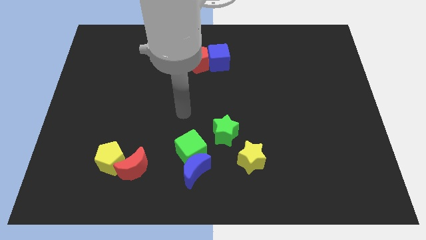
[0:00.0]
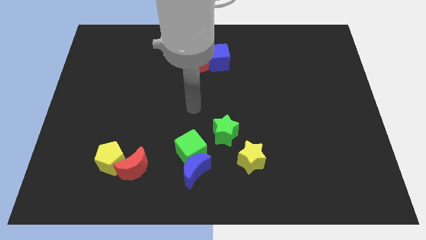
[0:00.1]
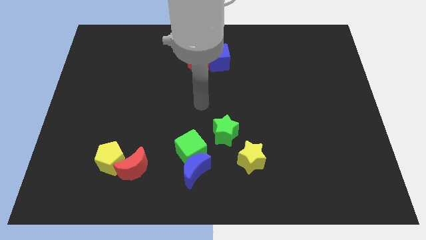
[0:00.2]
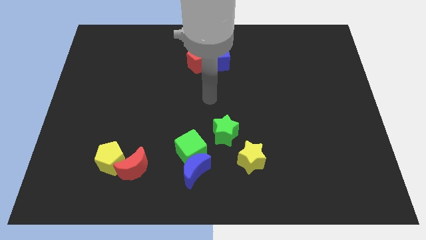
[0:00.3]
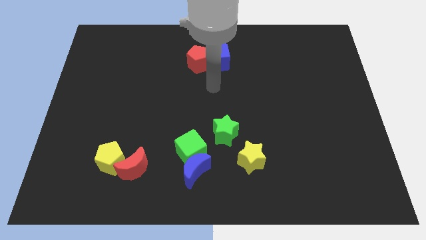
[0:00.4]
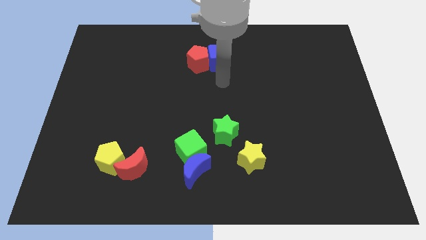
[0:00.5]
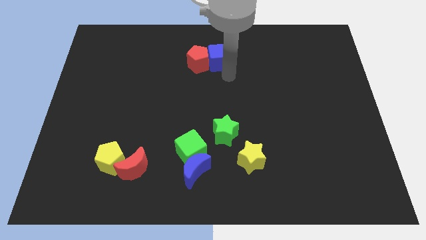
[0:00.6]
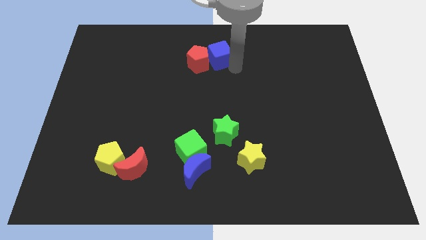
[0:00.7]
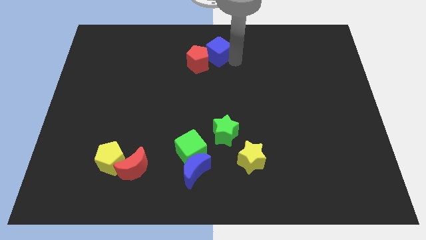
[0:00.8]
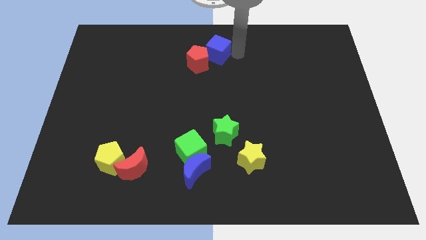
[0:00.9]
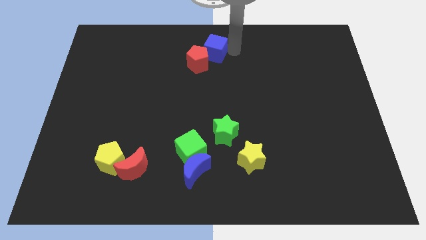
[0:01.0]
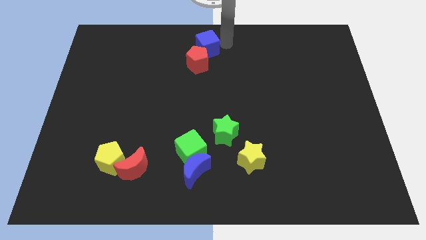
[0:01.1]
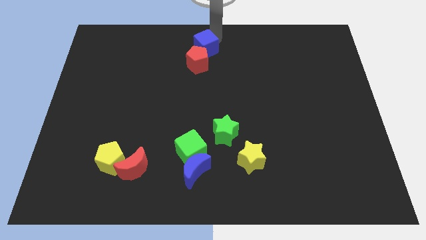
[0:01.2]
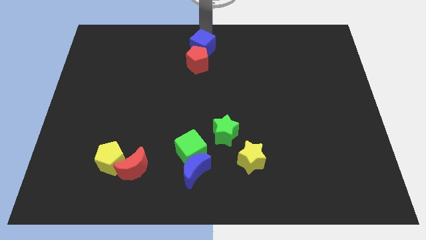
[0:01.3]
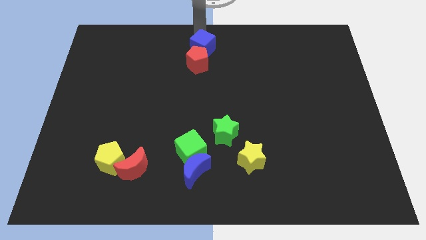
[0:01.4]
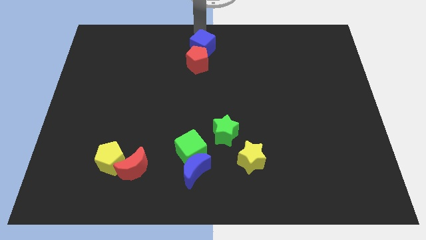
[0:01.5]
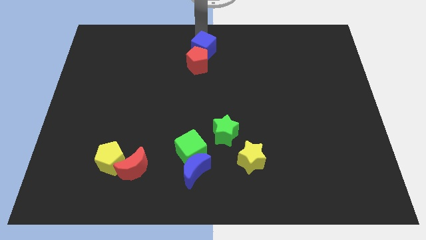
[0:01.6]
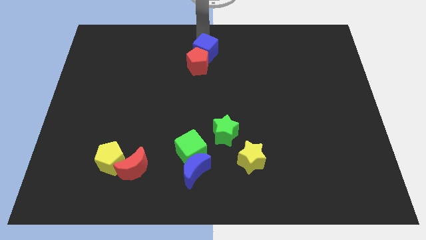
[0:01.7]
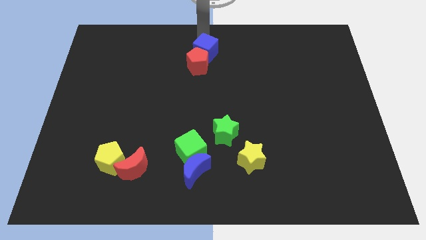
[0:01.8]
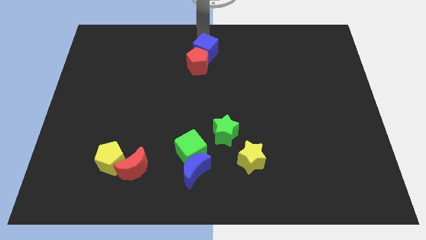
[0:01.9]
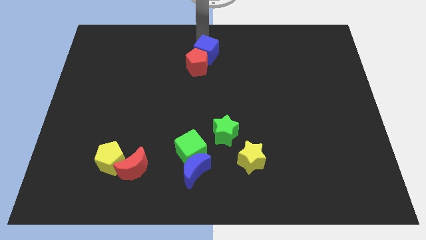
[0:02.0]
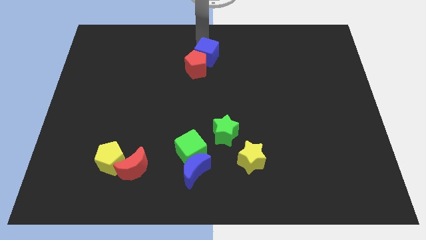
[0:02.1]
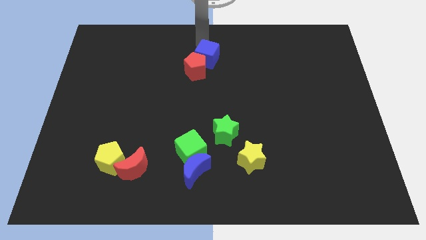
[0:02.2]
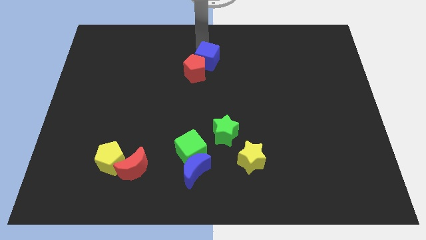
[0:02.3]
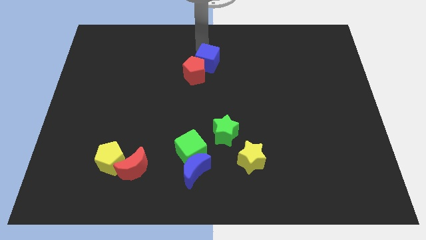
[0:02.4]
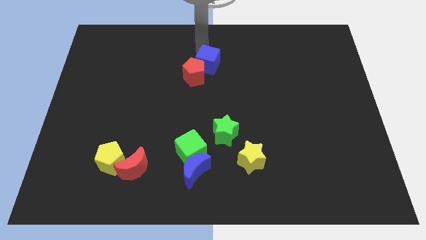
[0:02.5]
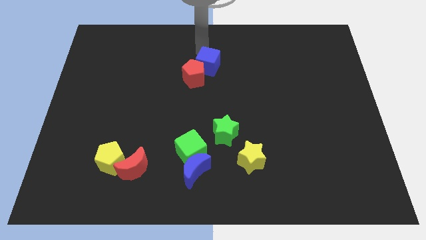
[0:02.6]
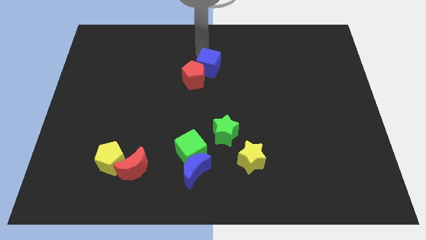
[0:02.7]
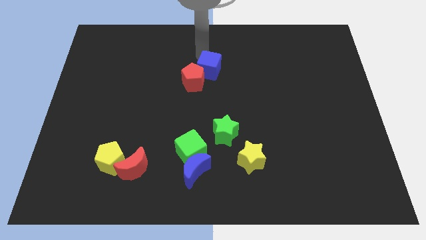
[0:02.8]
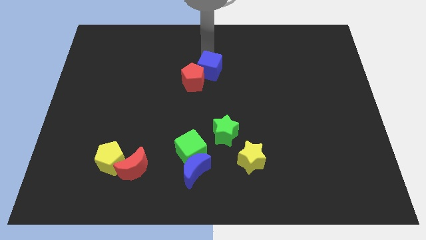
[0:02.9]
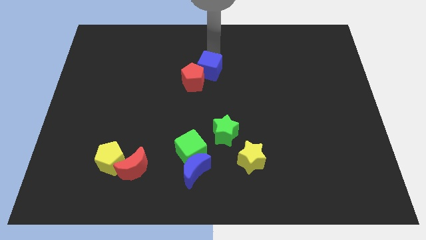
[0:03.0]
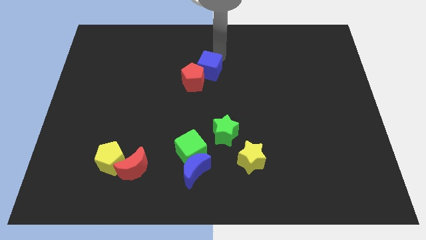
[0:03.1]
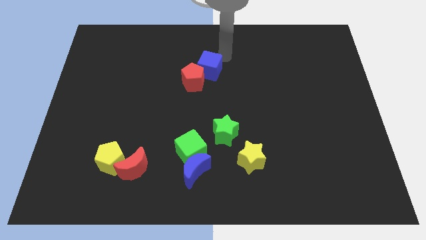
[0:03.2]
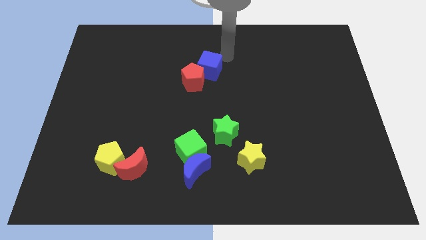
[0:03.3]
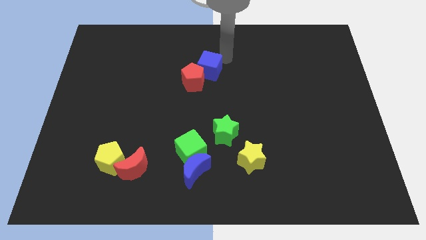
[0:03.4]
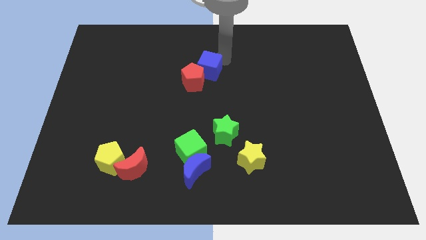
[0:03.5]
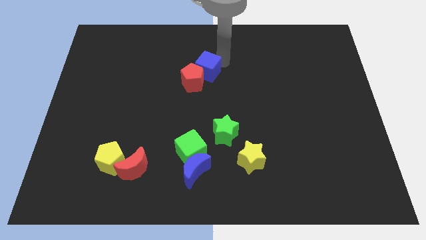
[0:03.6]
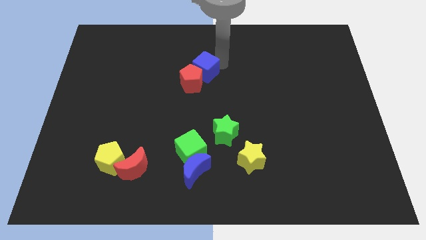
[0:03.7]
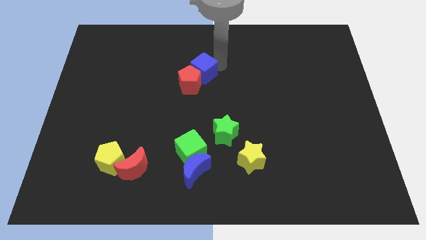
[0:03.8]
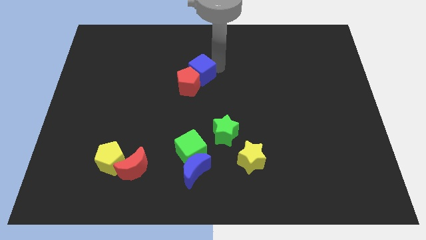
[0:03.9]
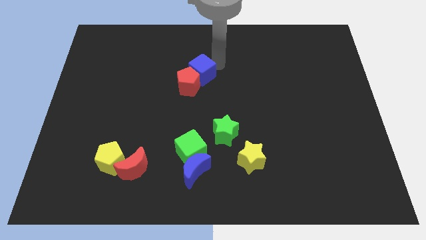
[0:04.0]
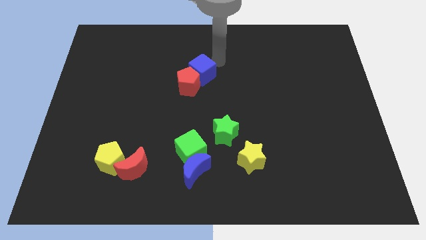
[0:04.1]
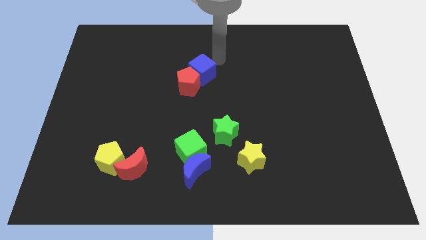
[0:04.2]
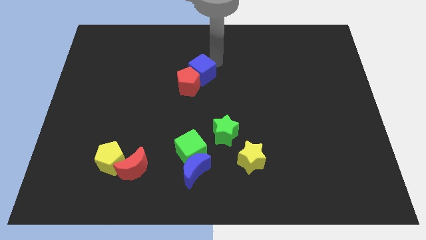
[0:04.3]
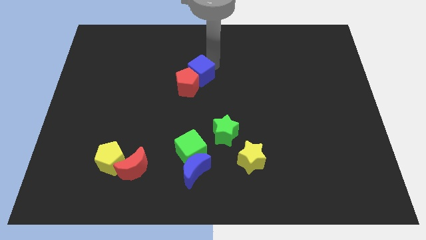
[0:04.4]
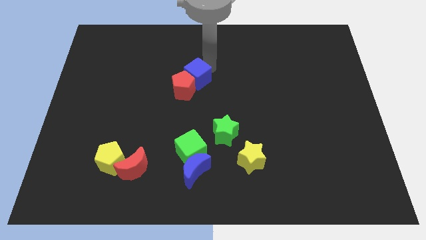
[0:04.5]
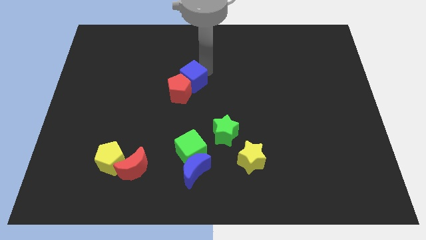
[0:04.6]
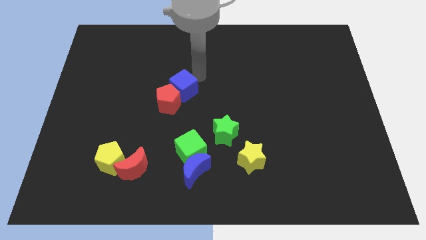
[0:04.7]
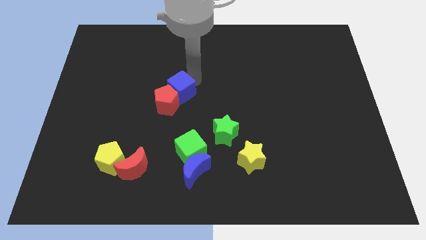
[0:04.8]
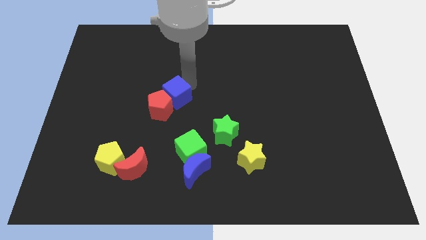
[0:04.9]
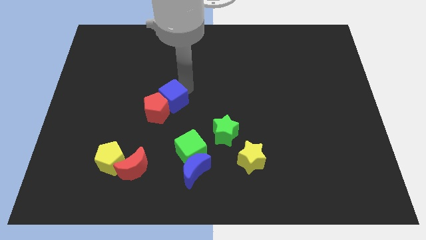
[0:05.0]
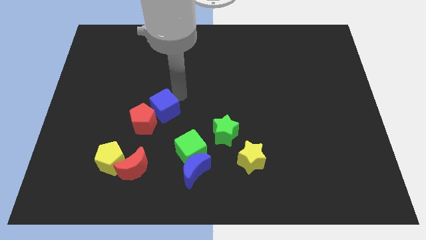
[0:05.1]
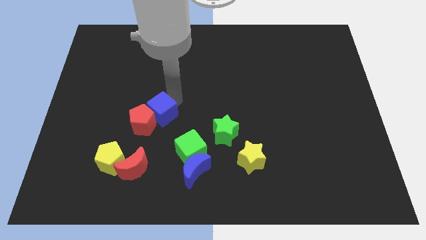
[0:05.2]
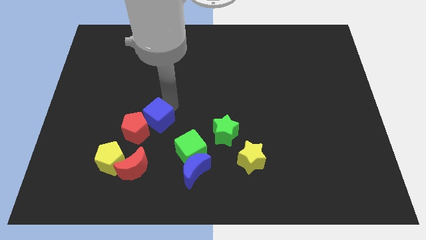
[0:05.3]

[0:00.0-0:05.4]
move the blue cube to the top side of the red moon

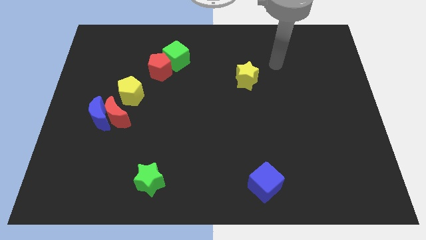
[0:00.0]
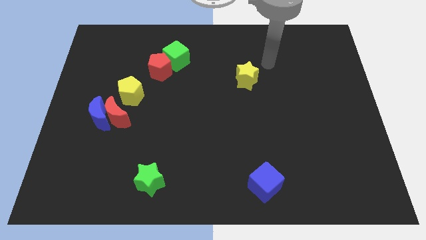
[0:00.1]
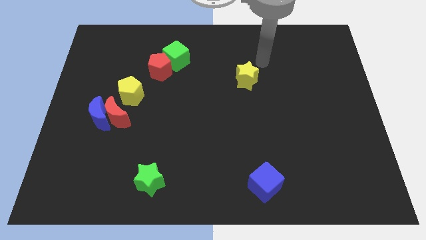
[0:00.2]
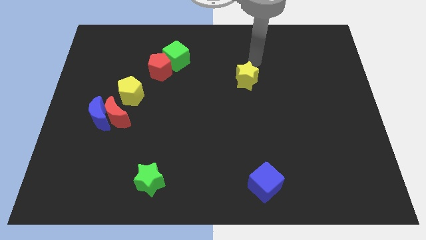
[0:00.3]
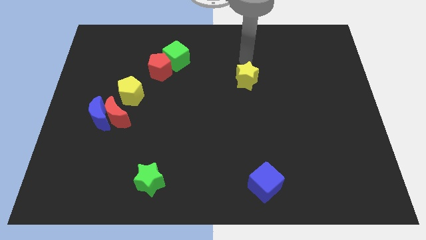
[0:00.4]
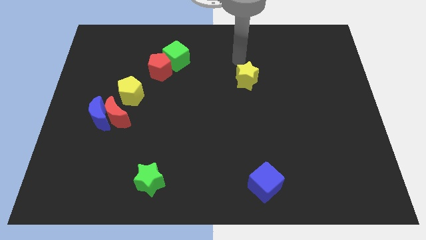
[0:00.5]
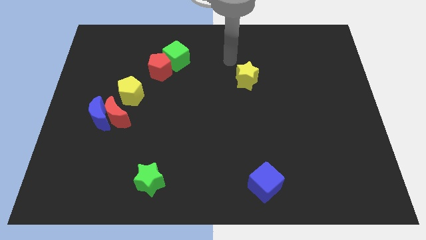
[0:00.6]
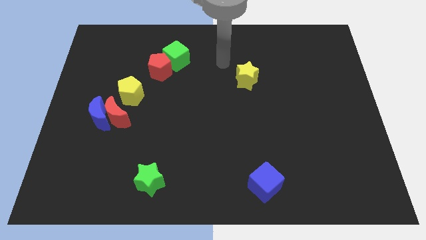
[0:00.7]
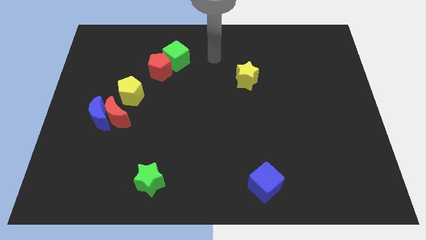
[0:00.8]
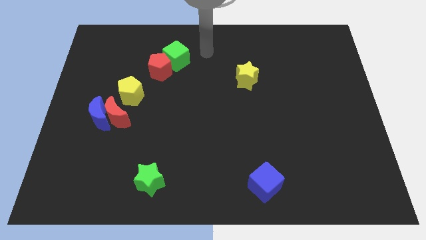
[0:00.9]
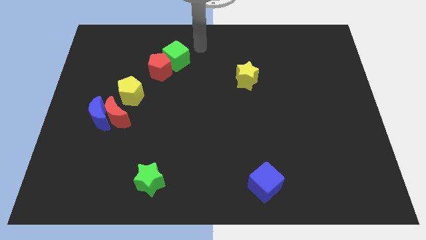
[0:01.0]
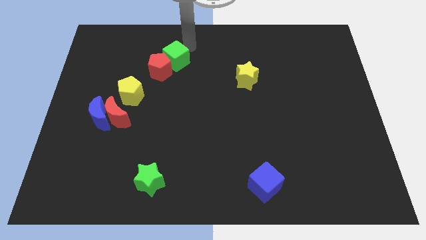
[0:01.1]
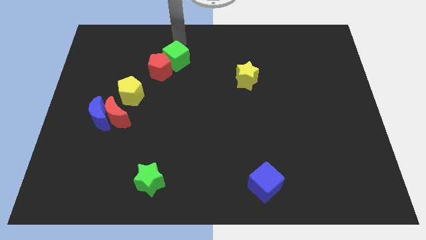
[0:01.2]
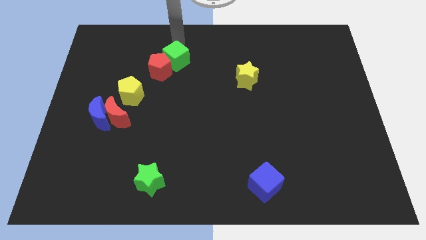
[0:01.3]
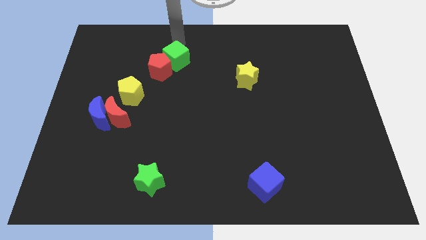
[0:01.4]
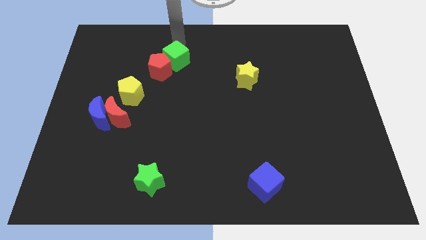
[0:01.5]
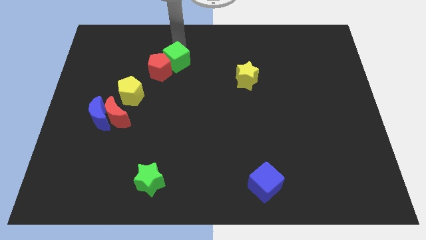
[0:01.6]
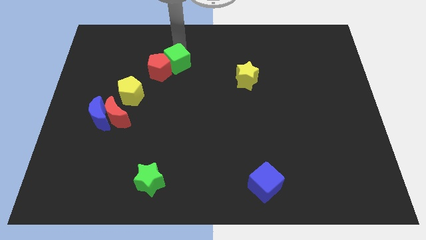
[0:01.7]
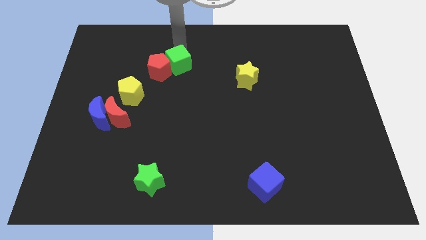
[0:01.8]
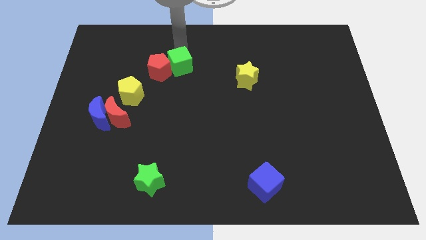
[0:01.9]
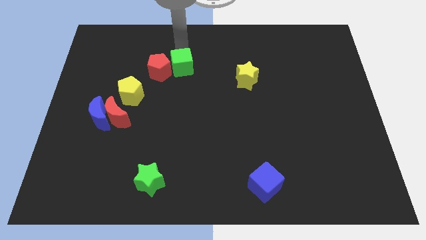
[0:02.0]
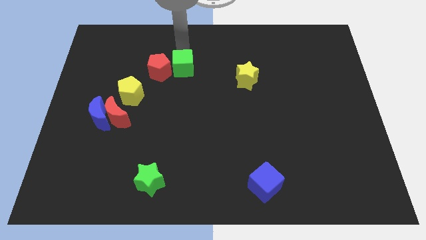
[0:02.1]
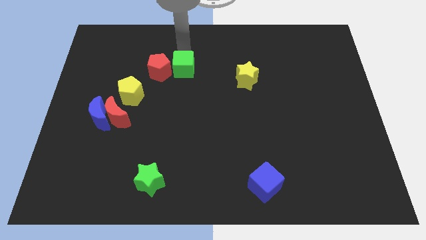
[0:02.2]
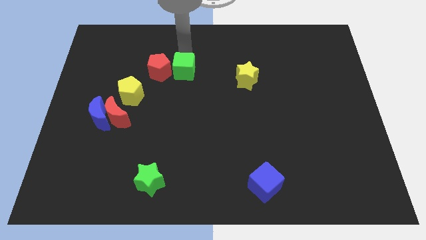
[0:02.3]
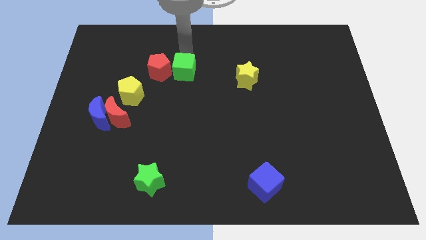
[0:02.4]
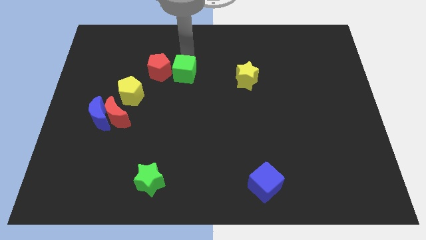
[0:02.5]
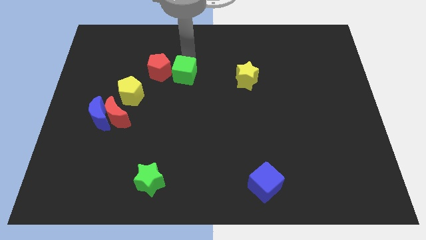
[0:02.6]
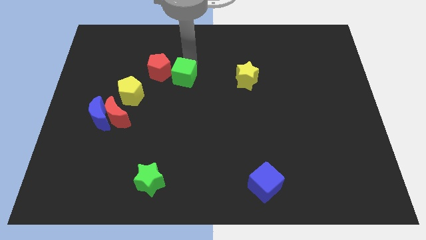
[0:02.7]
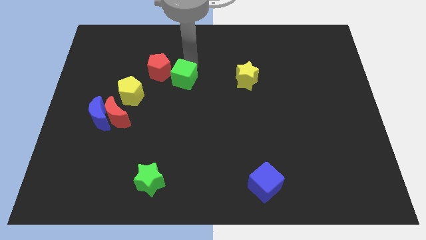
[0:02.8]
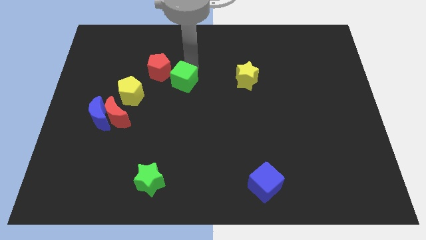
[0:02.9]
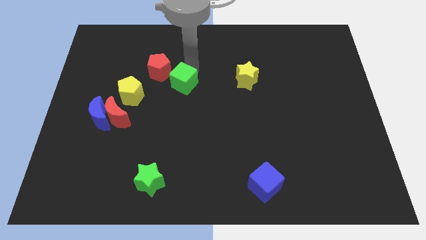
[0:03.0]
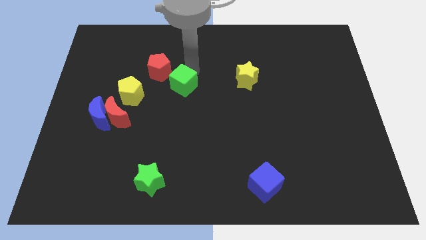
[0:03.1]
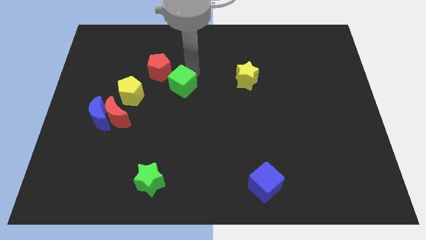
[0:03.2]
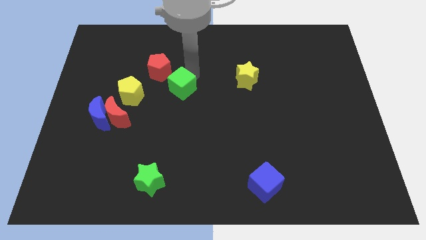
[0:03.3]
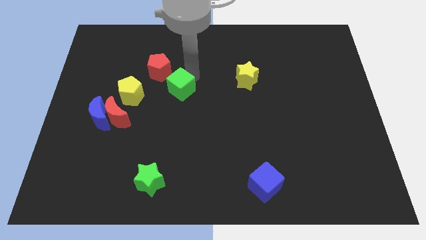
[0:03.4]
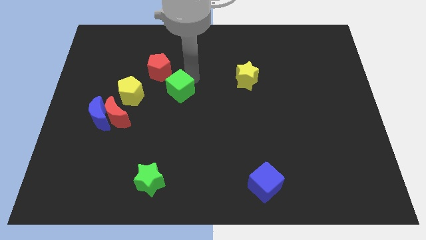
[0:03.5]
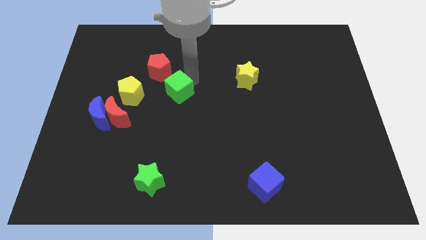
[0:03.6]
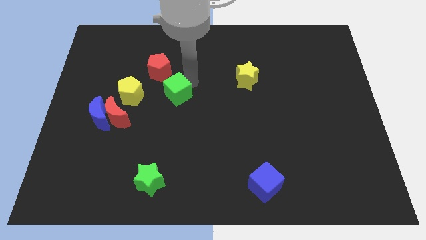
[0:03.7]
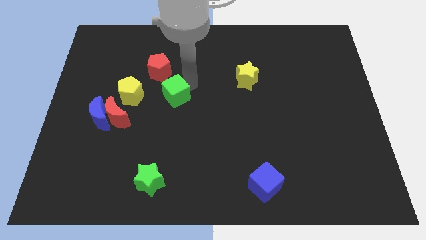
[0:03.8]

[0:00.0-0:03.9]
push the green cube to the bottom of the red pentagon
